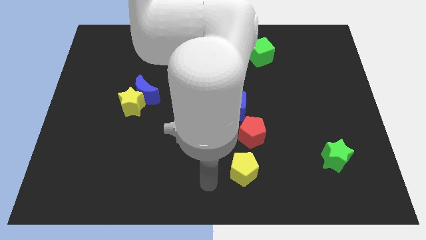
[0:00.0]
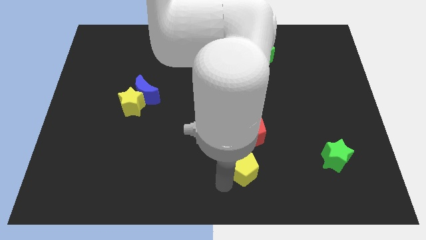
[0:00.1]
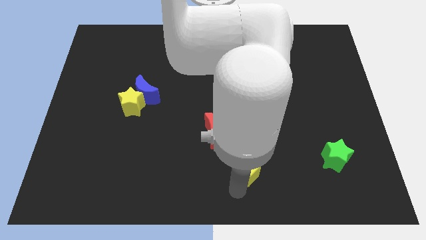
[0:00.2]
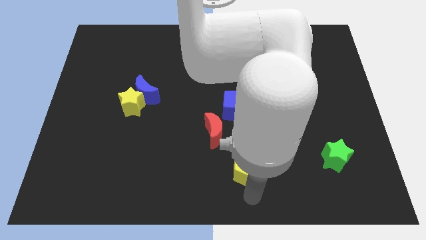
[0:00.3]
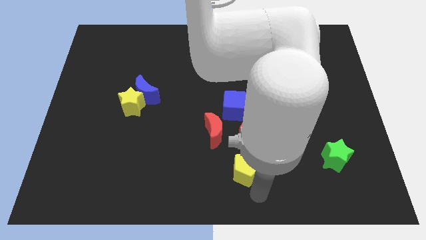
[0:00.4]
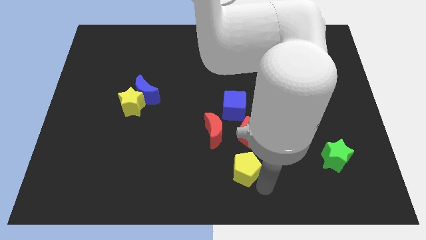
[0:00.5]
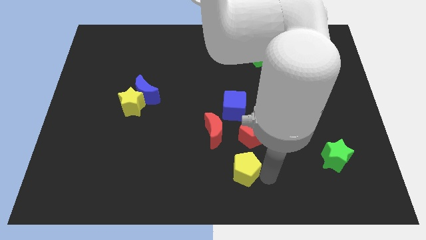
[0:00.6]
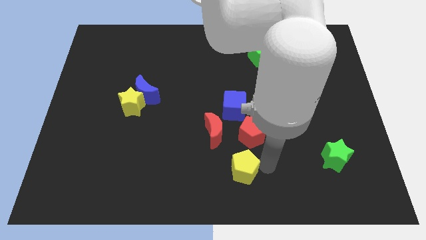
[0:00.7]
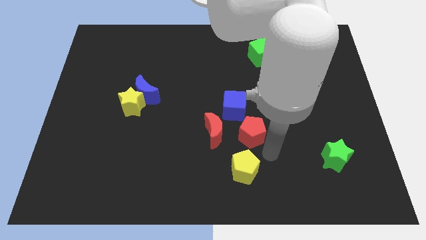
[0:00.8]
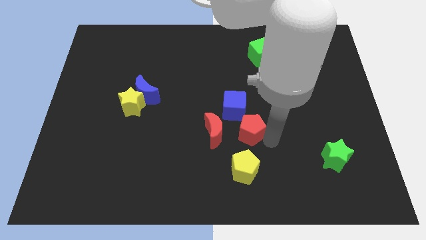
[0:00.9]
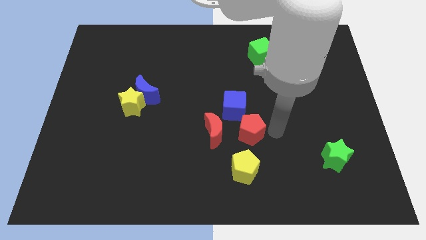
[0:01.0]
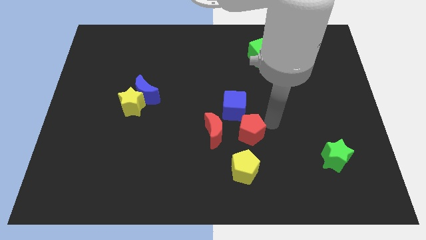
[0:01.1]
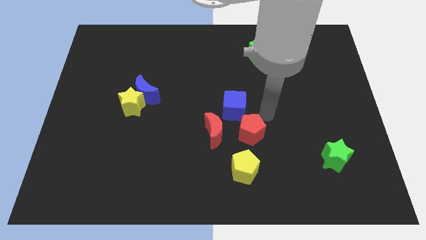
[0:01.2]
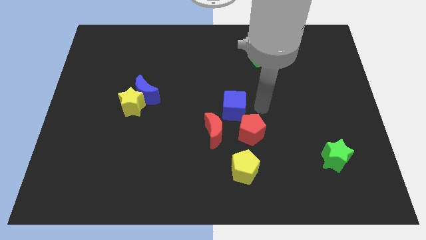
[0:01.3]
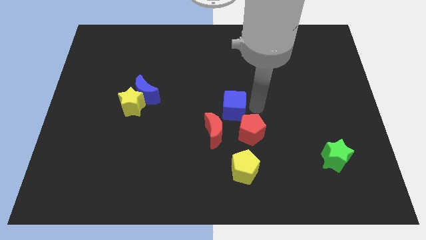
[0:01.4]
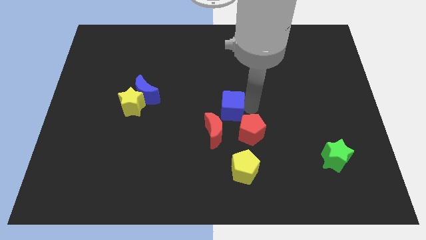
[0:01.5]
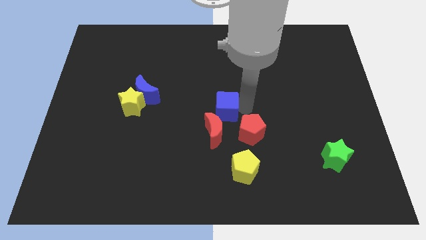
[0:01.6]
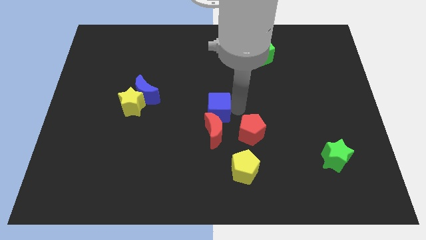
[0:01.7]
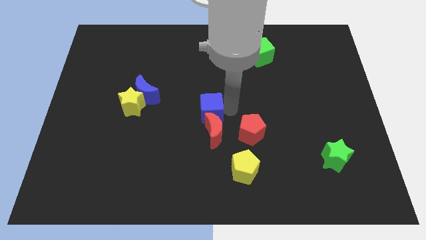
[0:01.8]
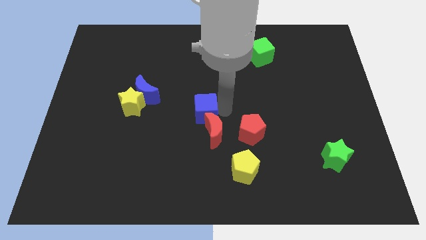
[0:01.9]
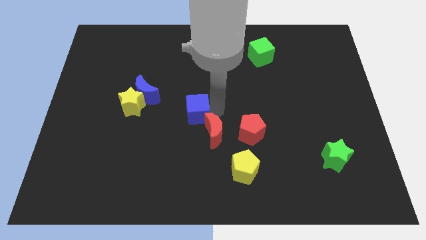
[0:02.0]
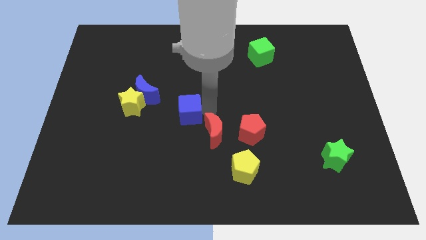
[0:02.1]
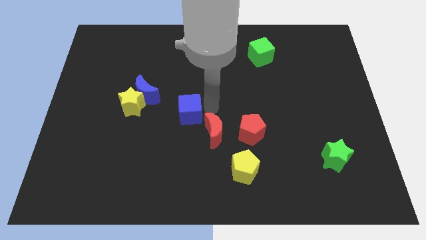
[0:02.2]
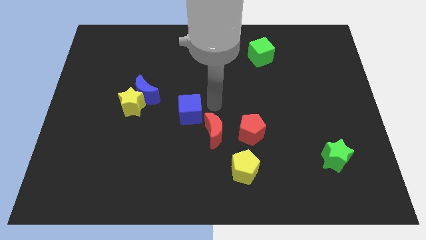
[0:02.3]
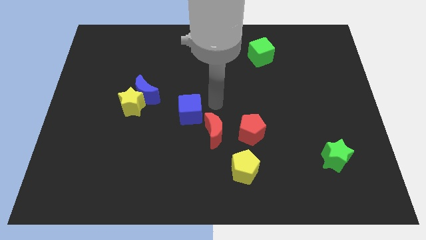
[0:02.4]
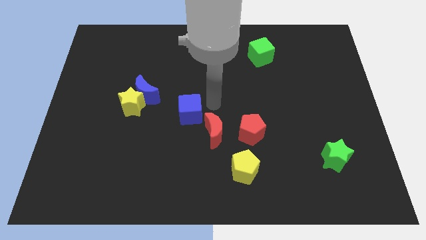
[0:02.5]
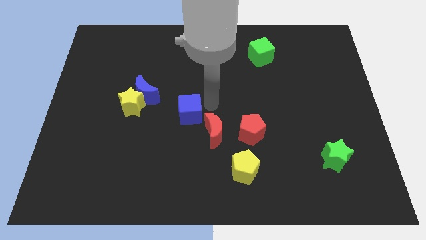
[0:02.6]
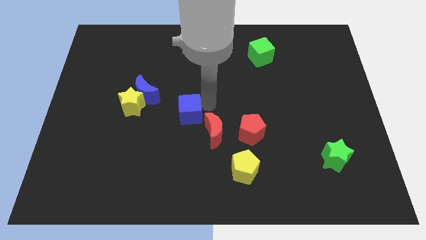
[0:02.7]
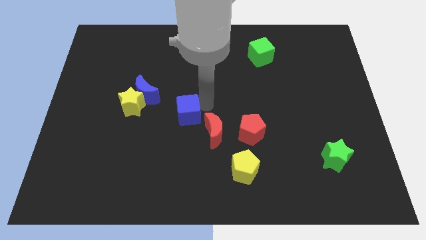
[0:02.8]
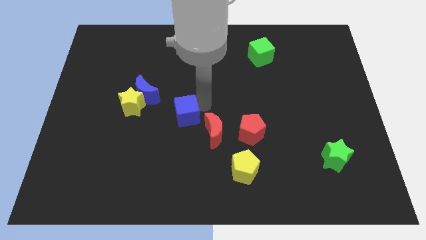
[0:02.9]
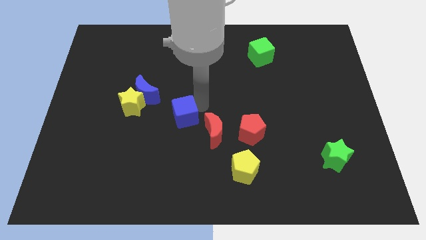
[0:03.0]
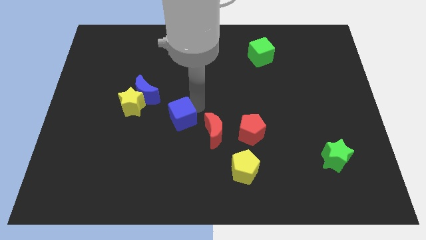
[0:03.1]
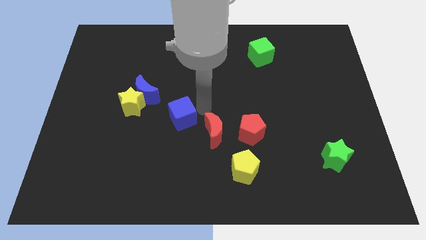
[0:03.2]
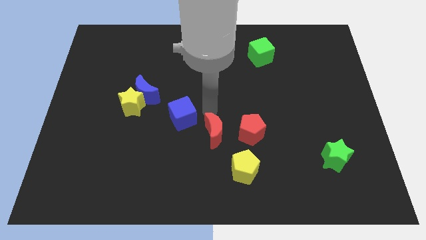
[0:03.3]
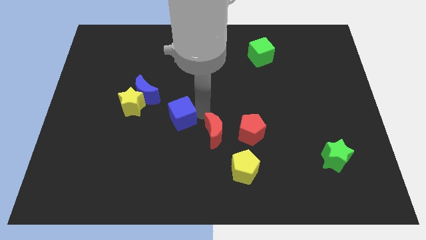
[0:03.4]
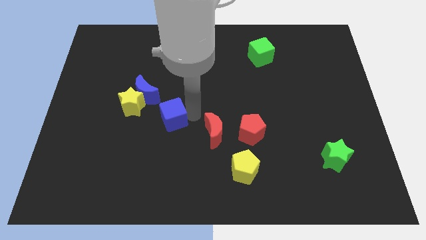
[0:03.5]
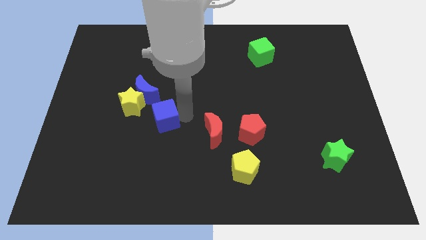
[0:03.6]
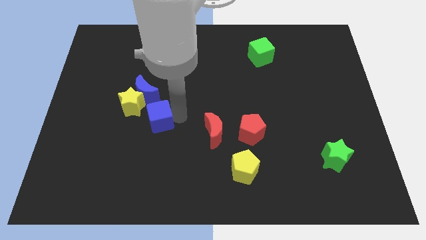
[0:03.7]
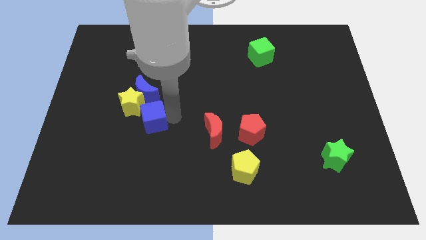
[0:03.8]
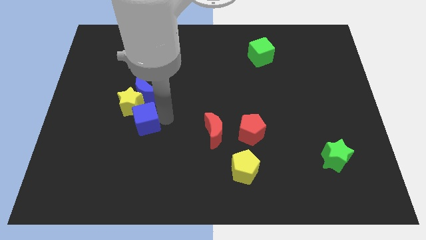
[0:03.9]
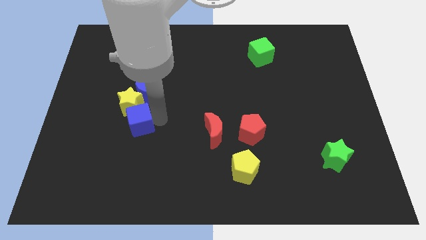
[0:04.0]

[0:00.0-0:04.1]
slide the blue cube left

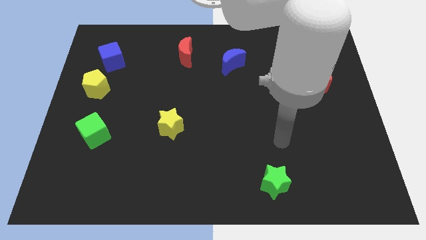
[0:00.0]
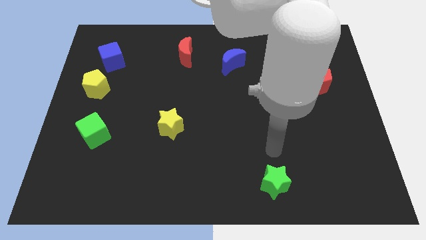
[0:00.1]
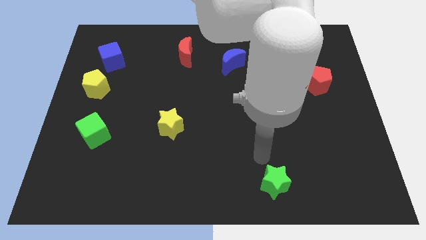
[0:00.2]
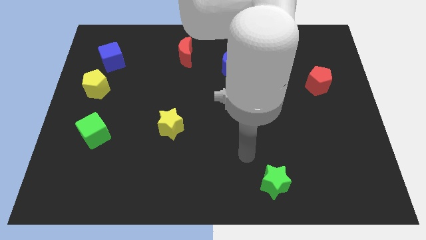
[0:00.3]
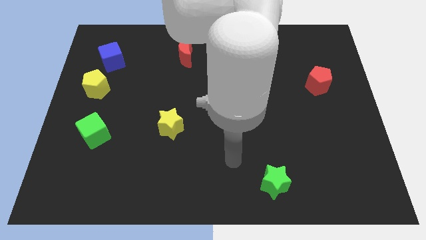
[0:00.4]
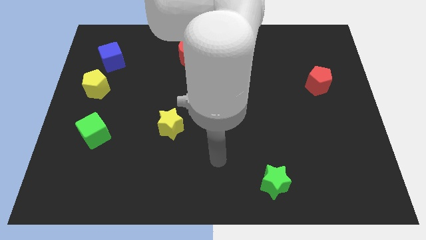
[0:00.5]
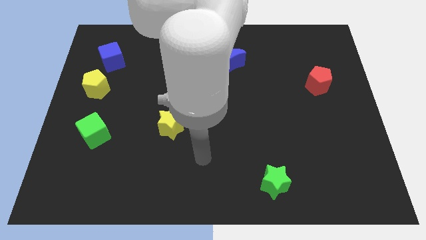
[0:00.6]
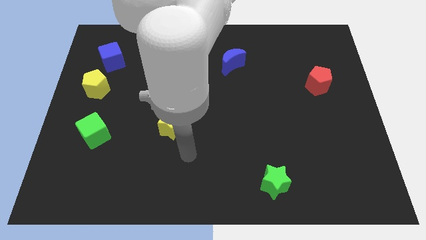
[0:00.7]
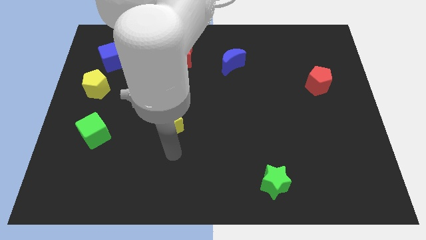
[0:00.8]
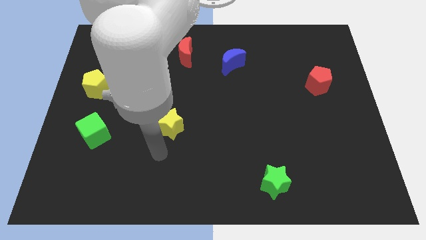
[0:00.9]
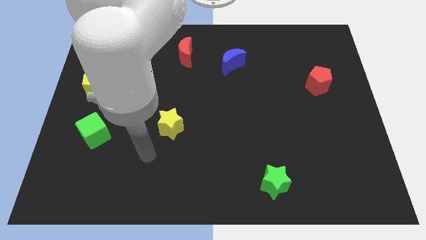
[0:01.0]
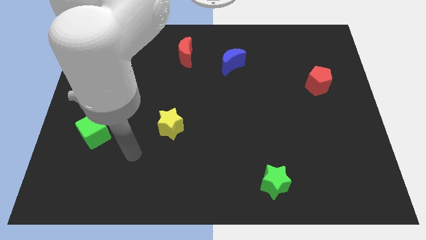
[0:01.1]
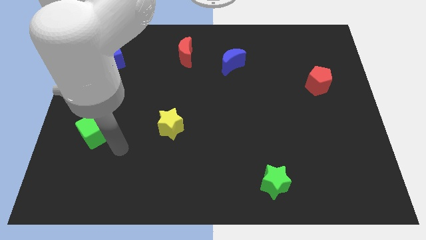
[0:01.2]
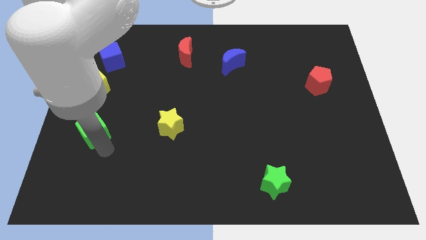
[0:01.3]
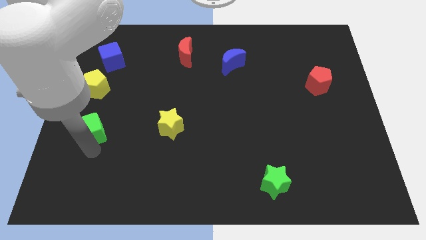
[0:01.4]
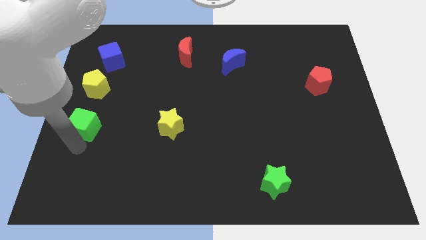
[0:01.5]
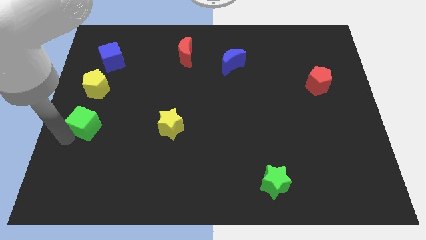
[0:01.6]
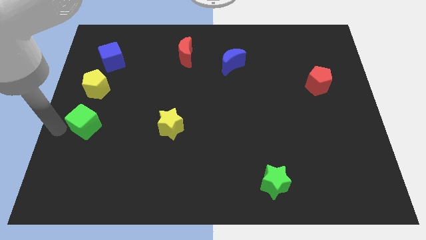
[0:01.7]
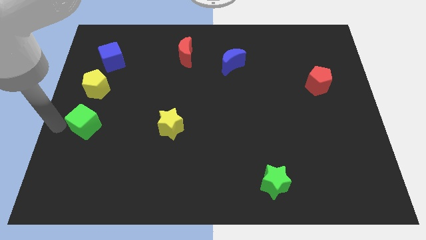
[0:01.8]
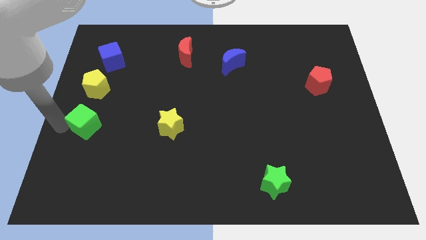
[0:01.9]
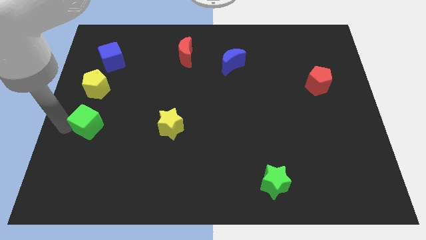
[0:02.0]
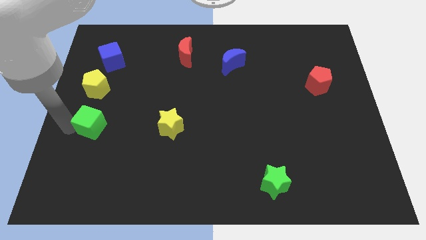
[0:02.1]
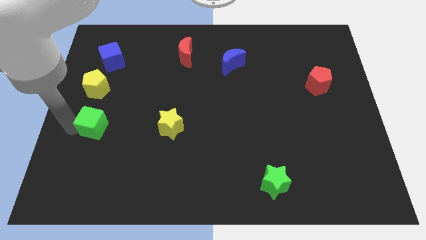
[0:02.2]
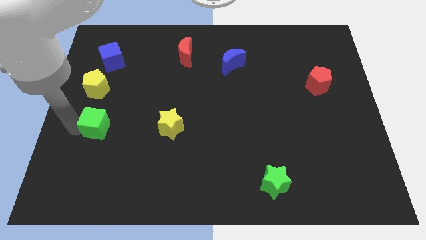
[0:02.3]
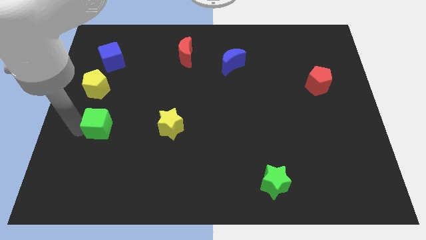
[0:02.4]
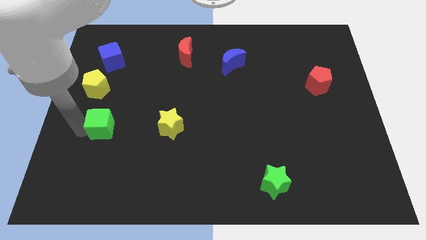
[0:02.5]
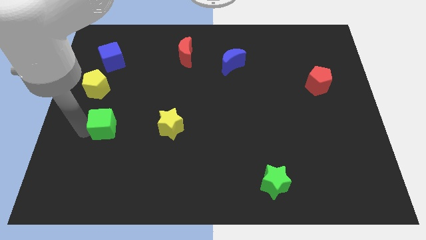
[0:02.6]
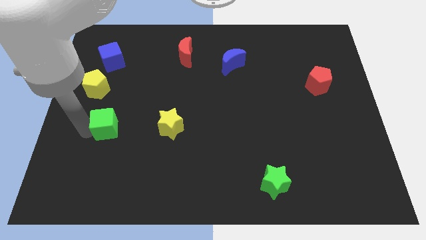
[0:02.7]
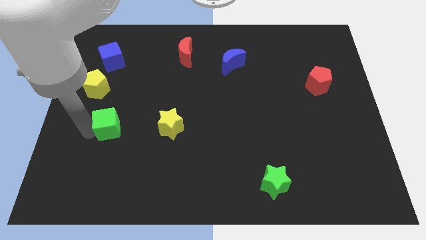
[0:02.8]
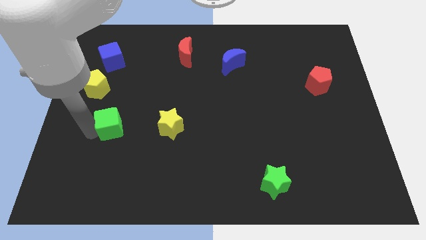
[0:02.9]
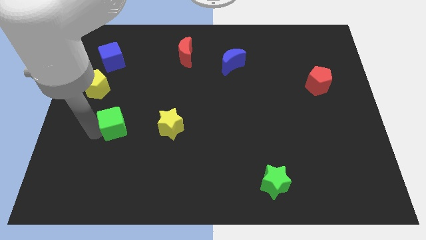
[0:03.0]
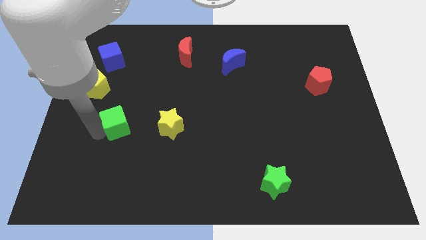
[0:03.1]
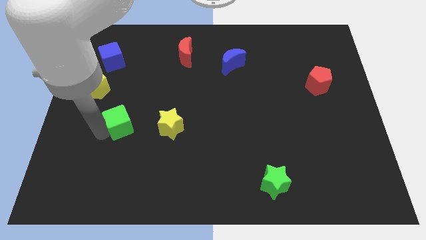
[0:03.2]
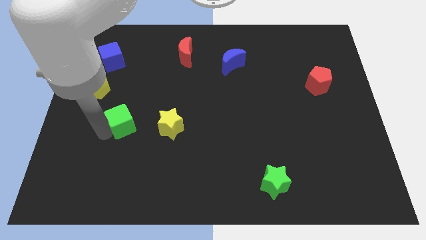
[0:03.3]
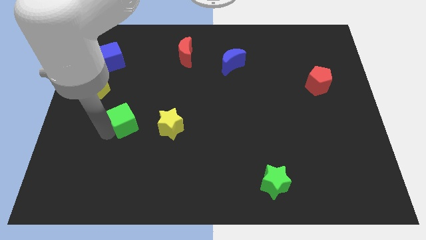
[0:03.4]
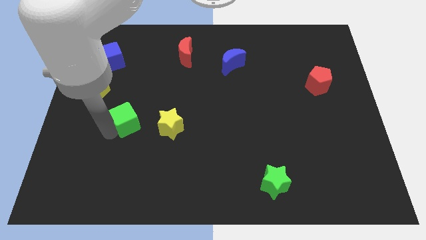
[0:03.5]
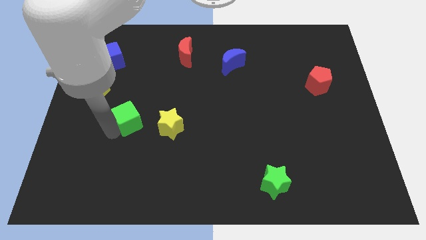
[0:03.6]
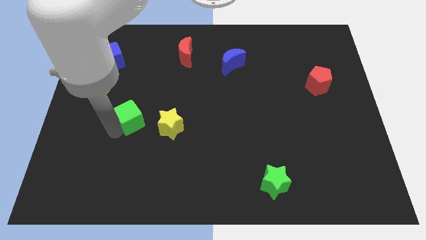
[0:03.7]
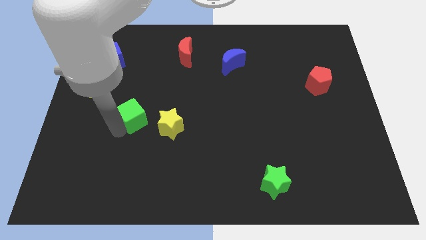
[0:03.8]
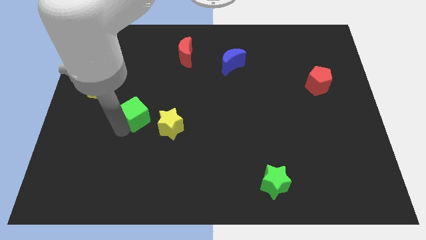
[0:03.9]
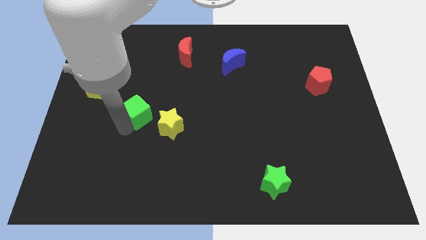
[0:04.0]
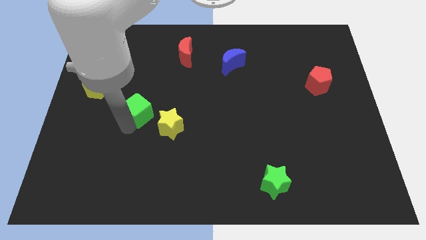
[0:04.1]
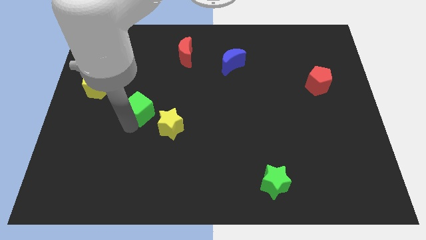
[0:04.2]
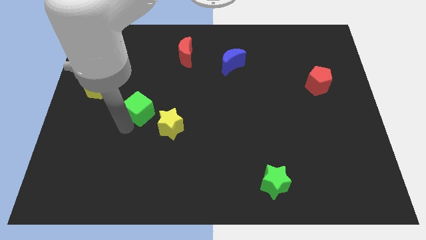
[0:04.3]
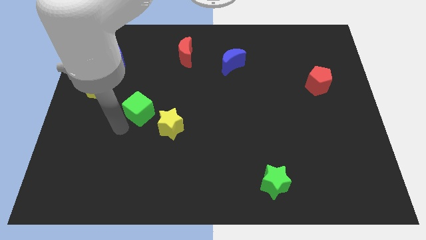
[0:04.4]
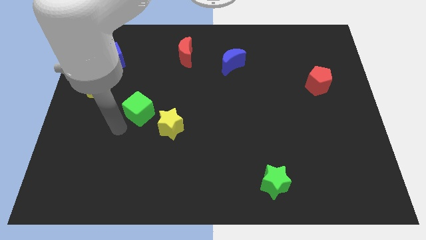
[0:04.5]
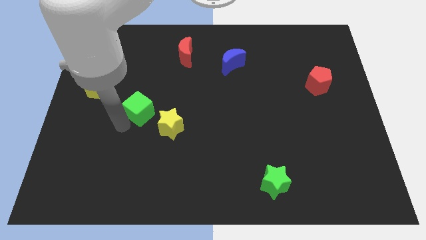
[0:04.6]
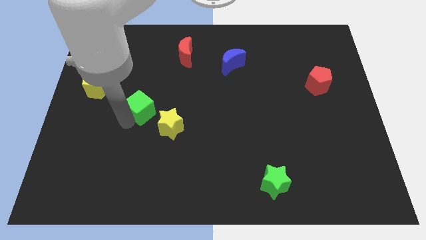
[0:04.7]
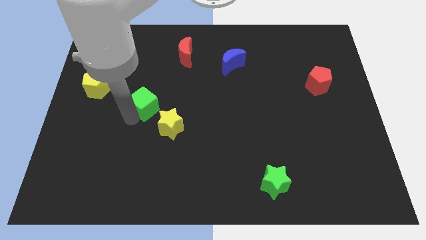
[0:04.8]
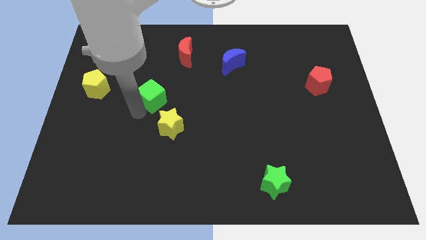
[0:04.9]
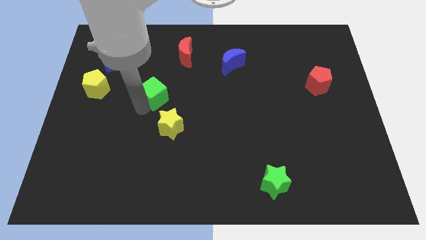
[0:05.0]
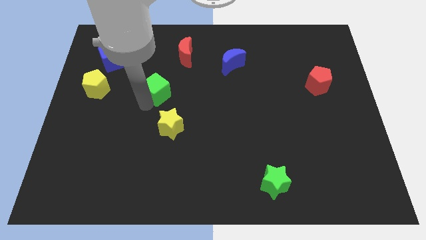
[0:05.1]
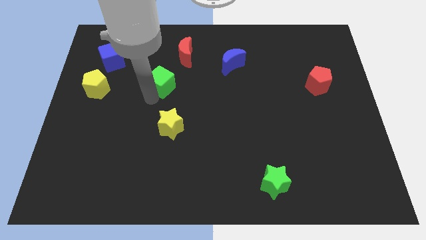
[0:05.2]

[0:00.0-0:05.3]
move the green cube up and to the right diagonally
